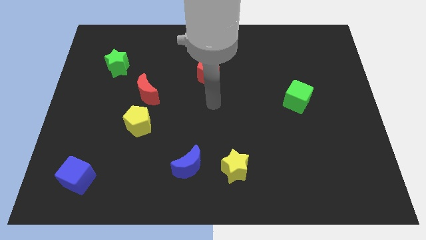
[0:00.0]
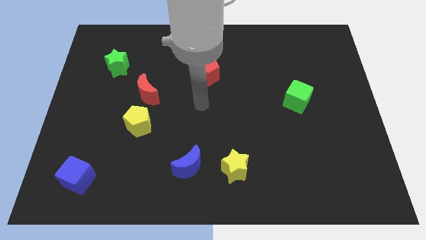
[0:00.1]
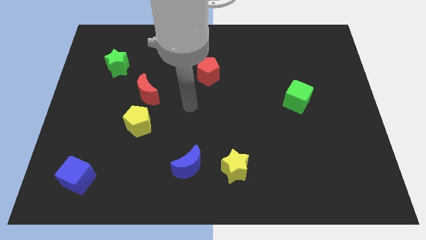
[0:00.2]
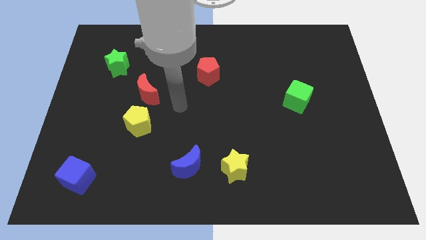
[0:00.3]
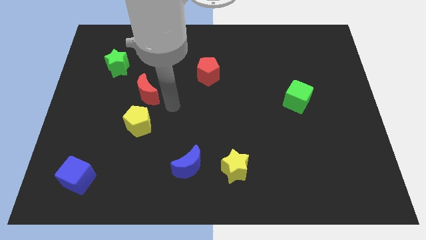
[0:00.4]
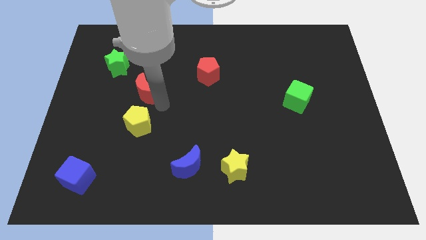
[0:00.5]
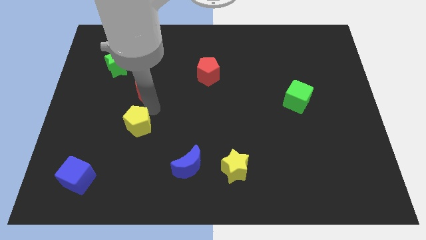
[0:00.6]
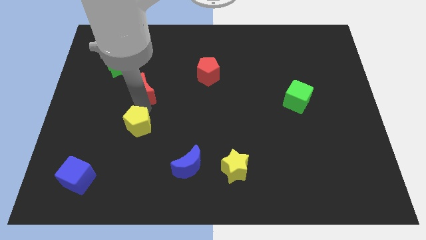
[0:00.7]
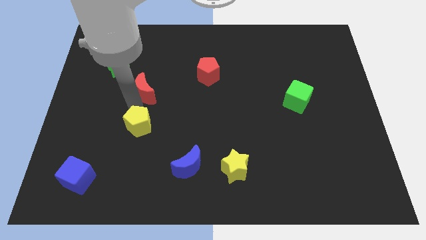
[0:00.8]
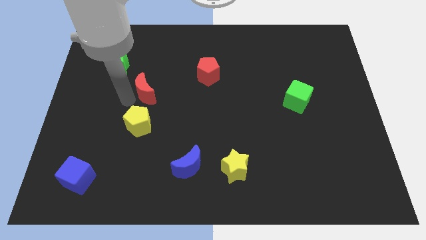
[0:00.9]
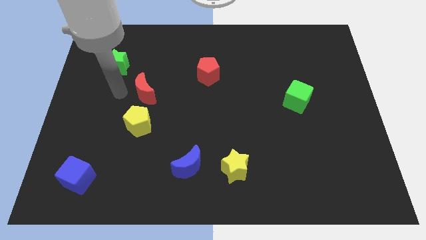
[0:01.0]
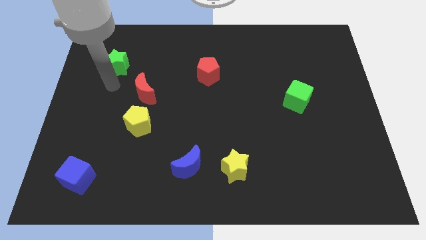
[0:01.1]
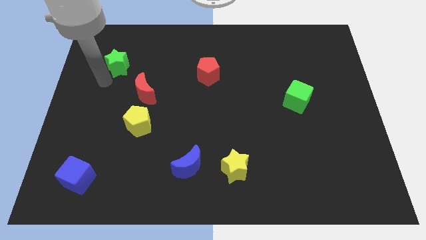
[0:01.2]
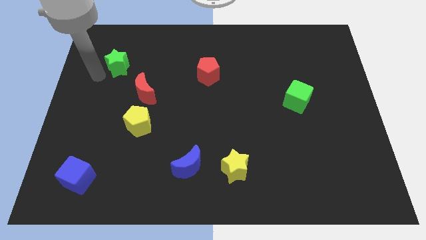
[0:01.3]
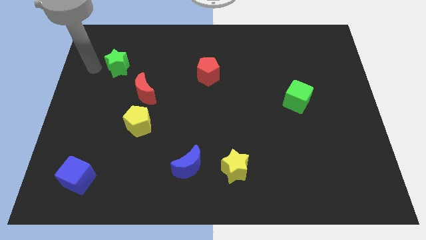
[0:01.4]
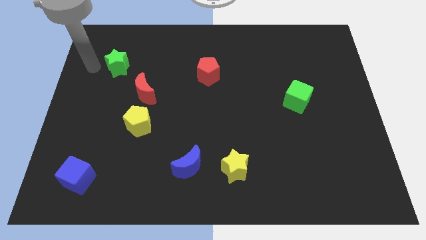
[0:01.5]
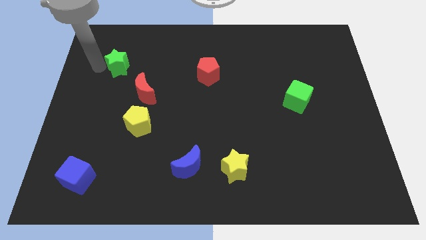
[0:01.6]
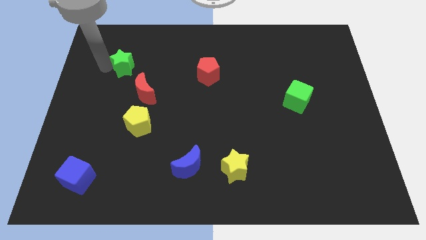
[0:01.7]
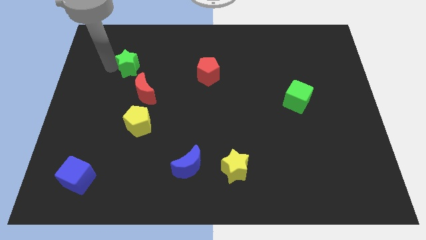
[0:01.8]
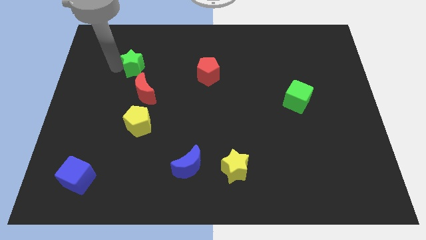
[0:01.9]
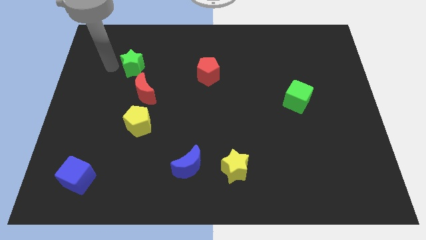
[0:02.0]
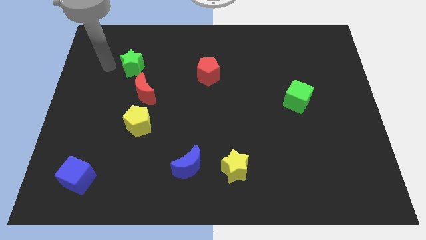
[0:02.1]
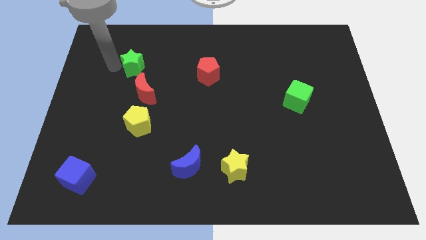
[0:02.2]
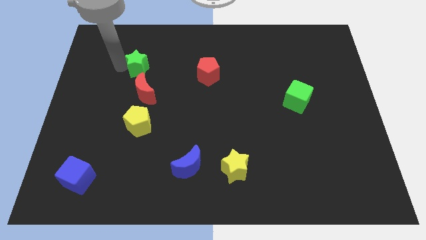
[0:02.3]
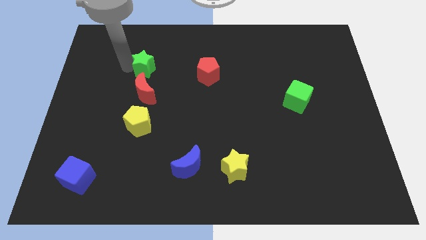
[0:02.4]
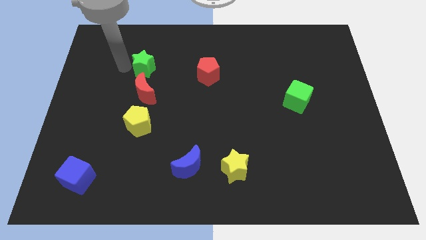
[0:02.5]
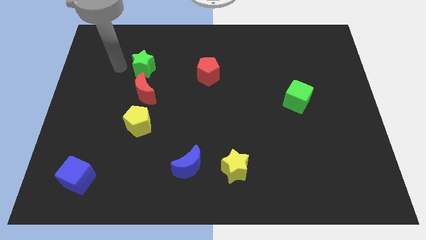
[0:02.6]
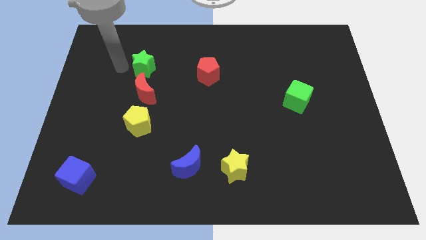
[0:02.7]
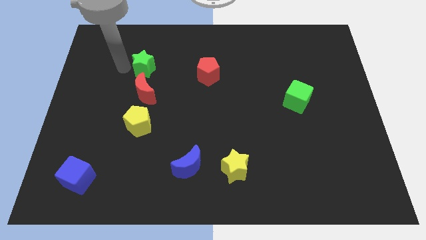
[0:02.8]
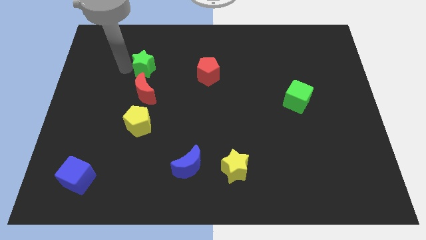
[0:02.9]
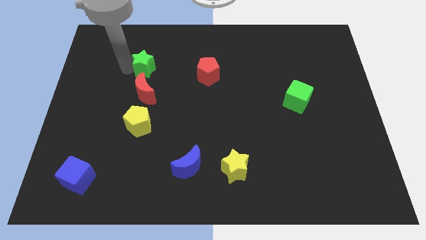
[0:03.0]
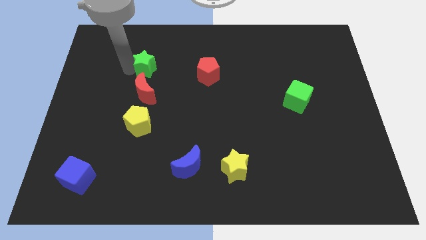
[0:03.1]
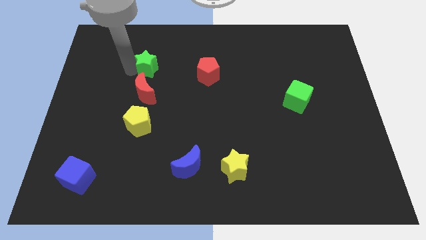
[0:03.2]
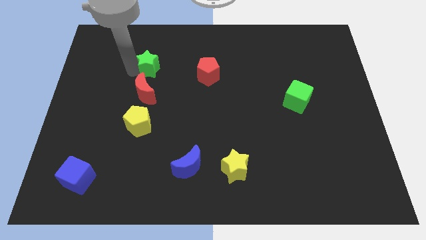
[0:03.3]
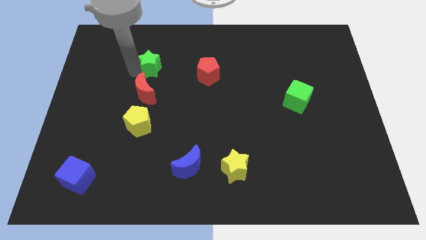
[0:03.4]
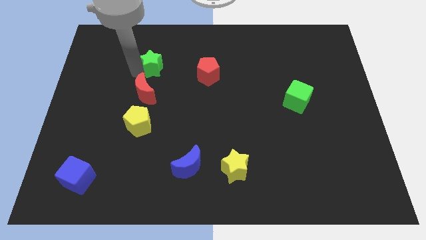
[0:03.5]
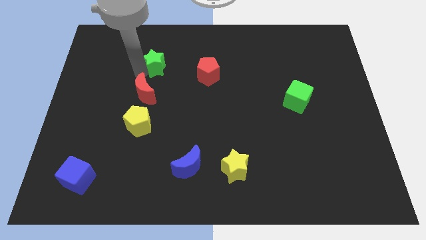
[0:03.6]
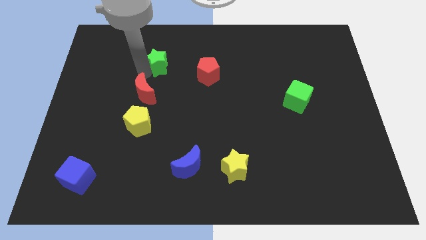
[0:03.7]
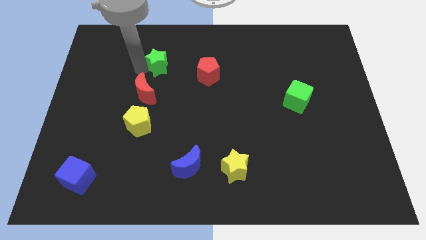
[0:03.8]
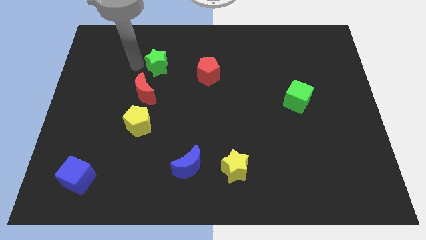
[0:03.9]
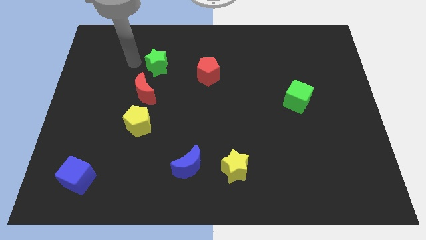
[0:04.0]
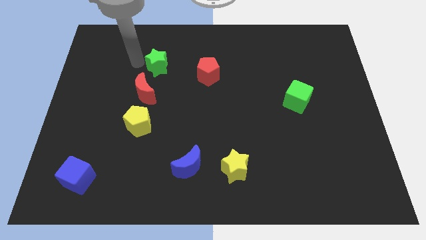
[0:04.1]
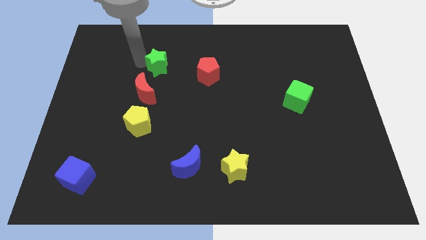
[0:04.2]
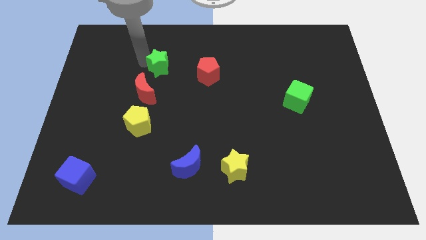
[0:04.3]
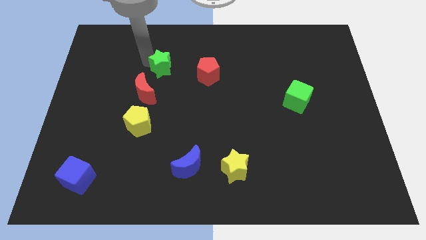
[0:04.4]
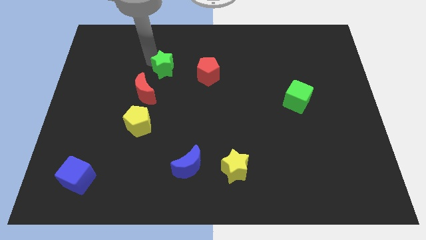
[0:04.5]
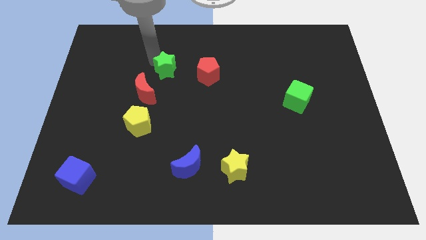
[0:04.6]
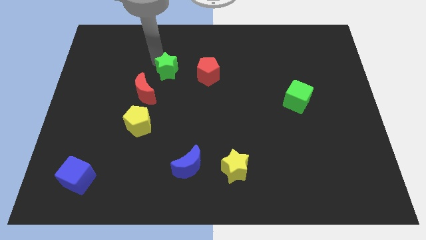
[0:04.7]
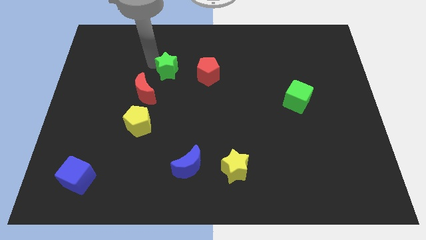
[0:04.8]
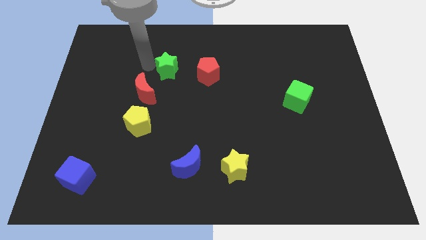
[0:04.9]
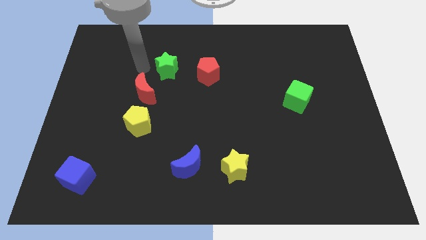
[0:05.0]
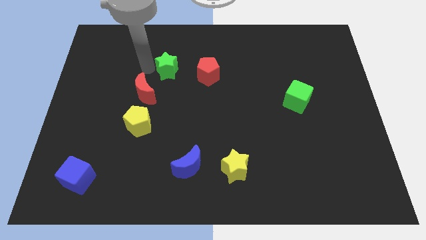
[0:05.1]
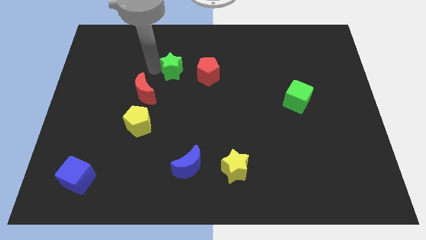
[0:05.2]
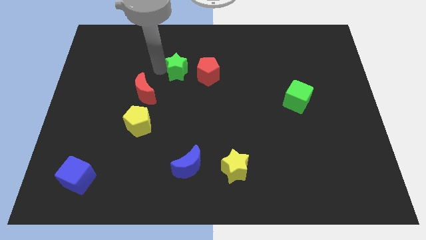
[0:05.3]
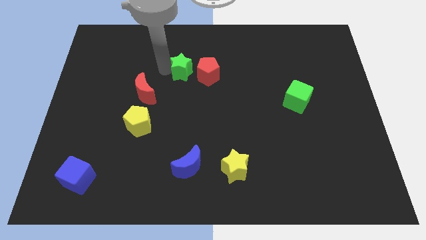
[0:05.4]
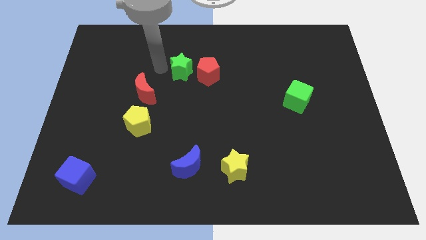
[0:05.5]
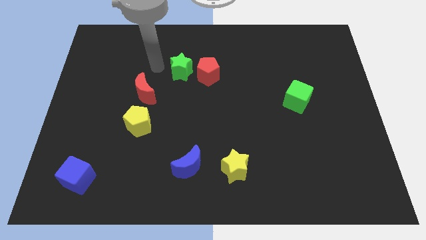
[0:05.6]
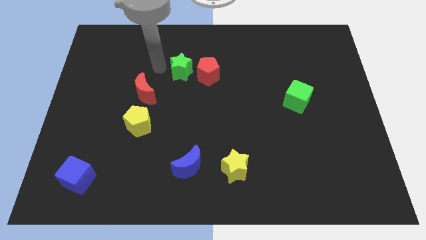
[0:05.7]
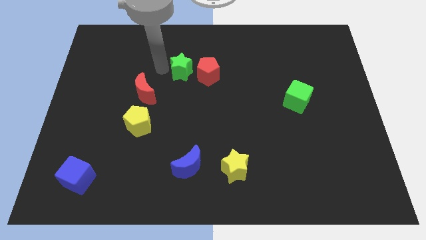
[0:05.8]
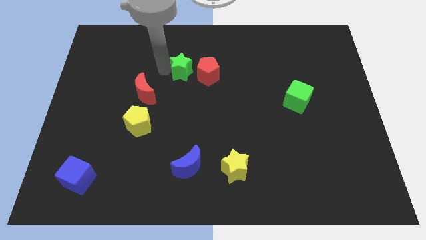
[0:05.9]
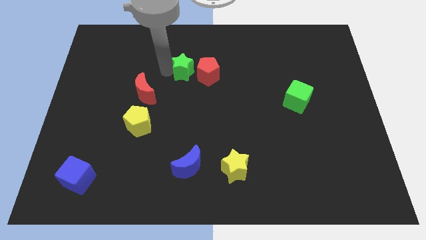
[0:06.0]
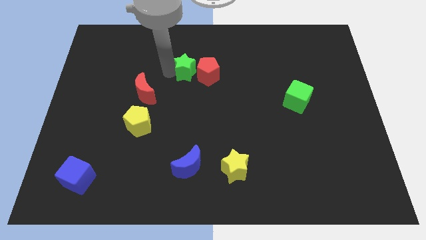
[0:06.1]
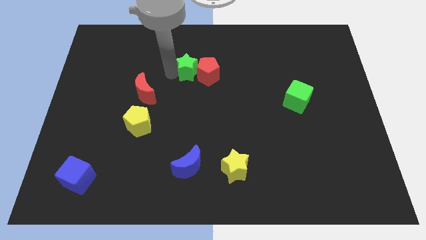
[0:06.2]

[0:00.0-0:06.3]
move the green star to the red pentagon
